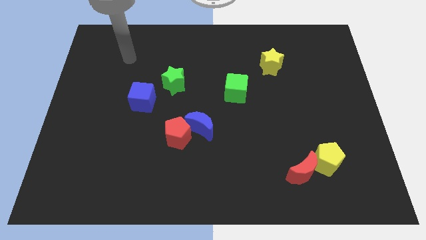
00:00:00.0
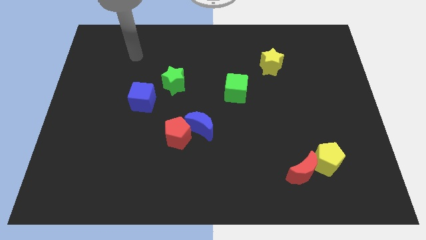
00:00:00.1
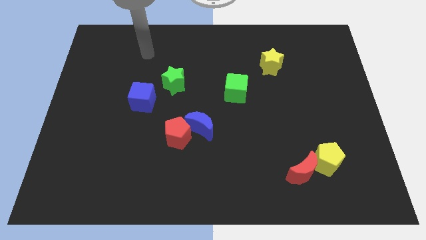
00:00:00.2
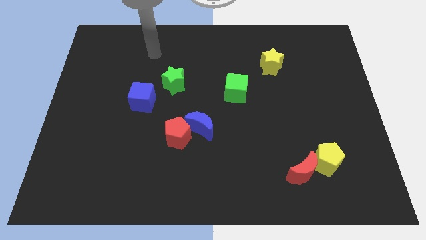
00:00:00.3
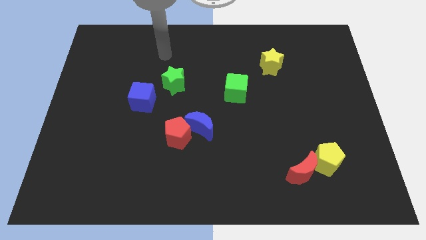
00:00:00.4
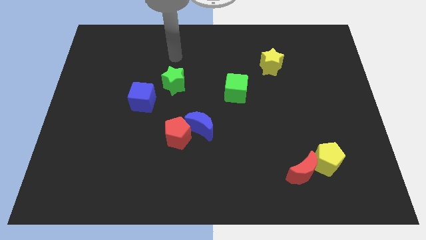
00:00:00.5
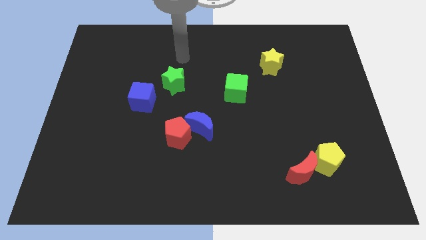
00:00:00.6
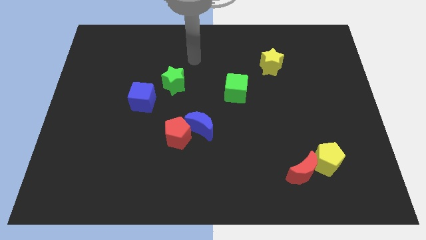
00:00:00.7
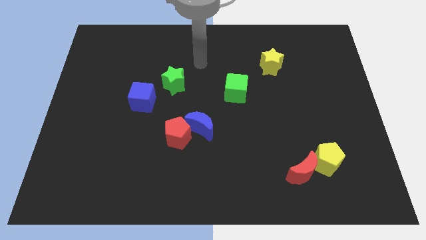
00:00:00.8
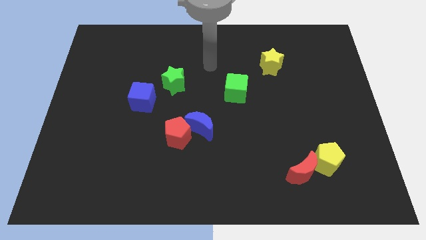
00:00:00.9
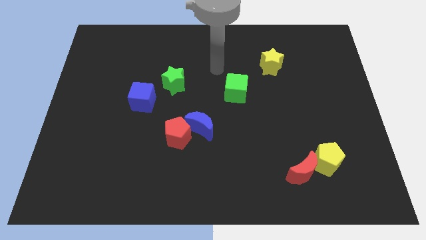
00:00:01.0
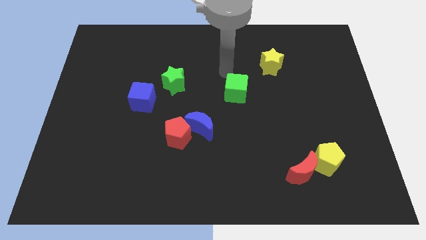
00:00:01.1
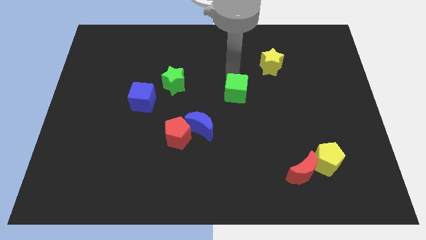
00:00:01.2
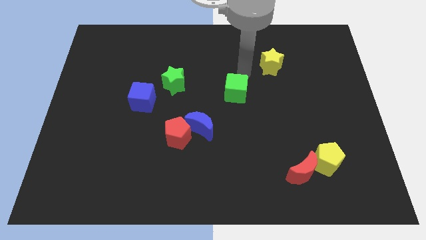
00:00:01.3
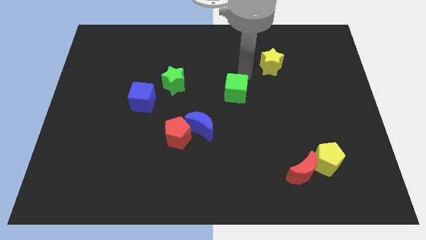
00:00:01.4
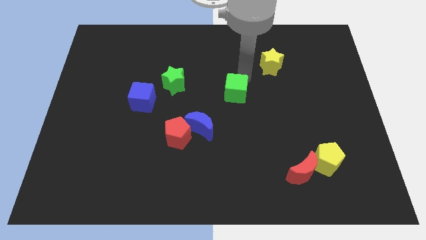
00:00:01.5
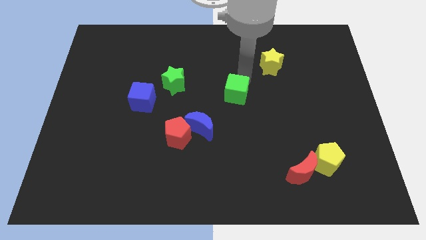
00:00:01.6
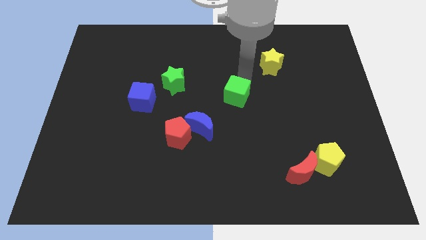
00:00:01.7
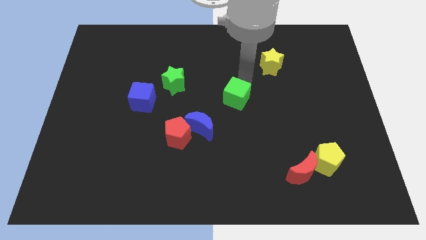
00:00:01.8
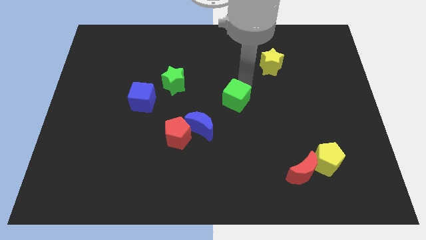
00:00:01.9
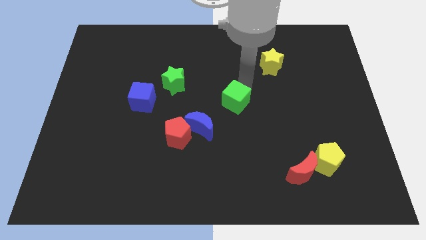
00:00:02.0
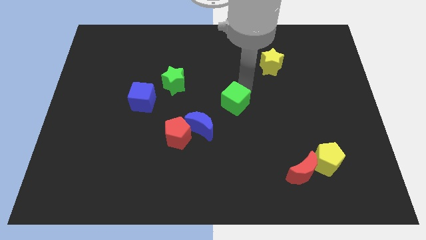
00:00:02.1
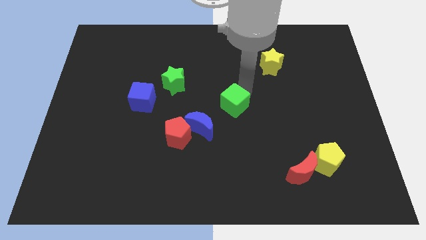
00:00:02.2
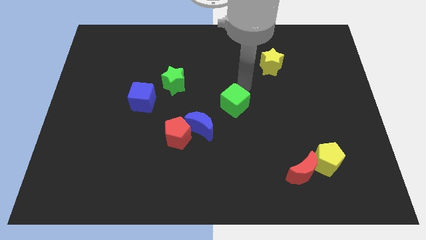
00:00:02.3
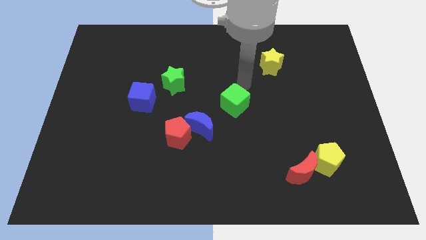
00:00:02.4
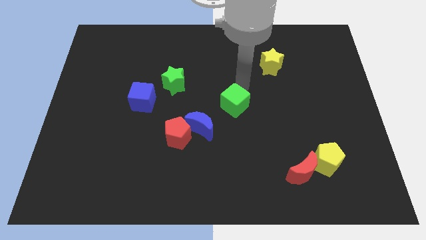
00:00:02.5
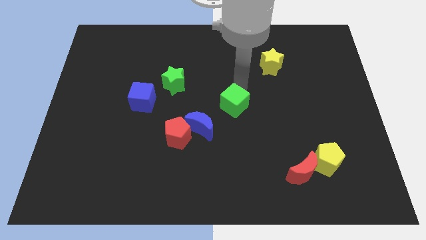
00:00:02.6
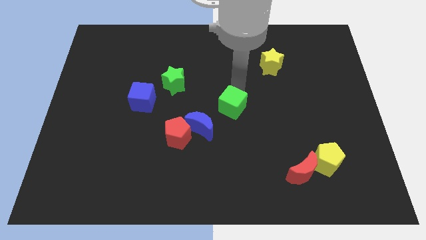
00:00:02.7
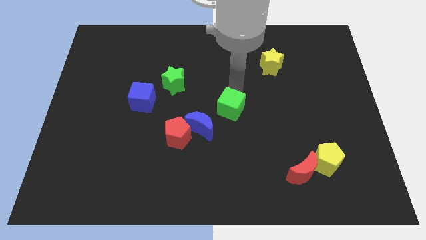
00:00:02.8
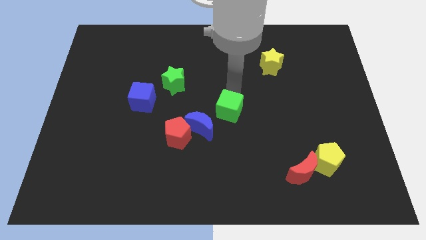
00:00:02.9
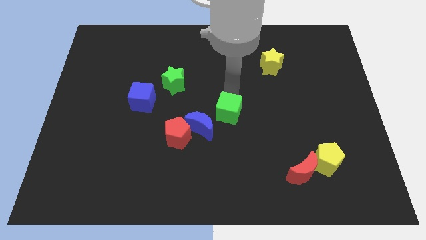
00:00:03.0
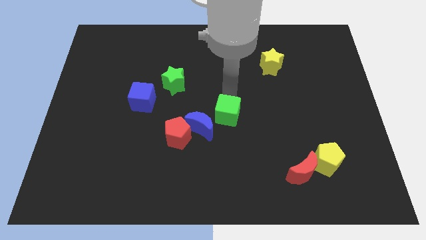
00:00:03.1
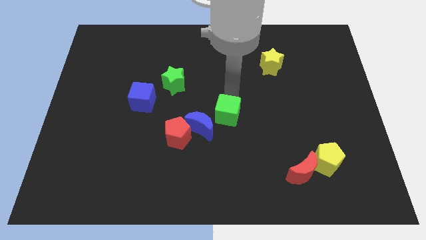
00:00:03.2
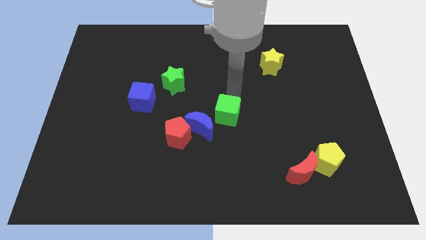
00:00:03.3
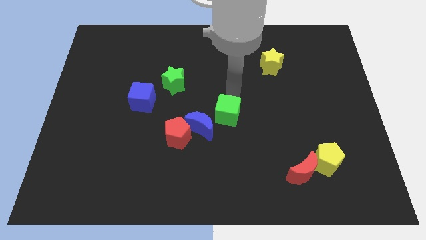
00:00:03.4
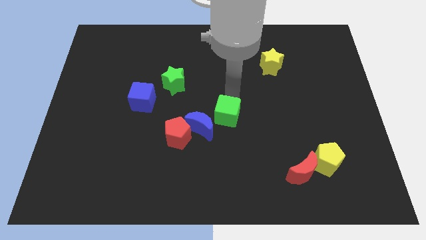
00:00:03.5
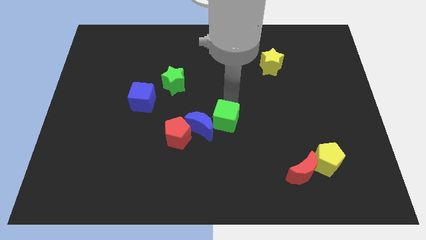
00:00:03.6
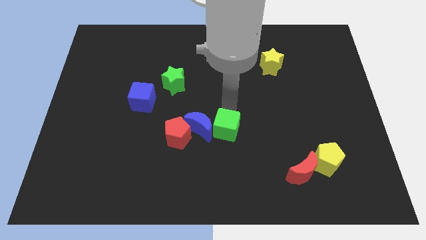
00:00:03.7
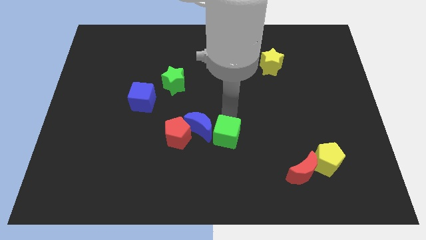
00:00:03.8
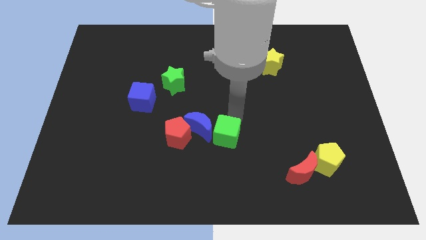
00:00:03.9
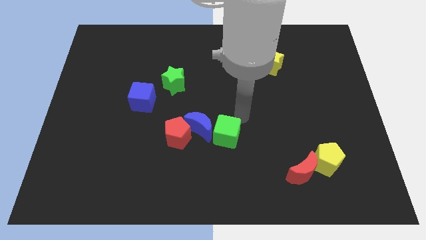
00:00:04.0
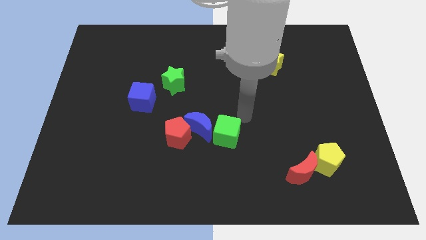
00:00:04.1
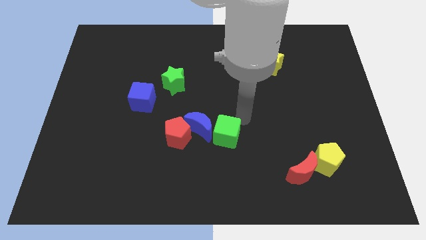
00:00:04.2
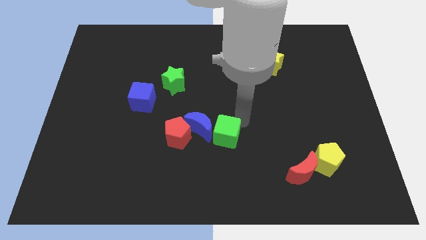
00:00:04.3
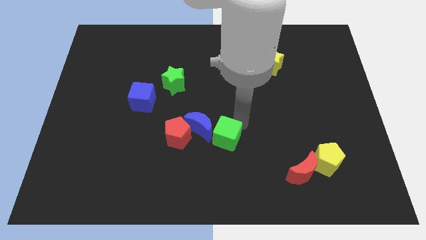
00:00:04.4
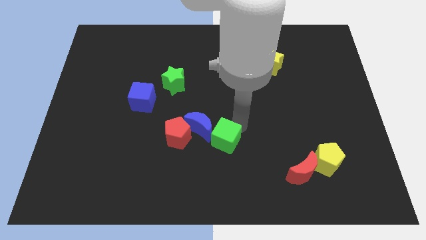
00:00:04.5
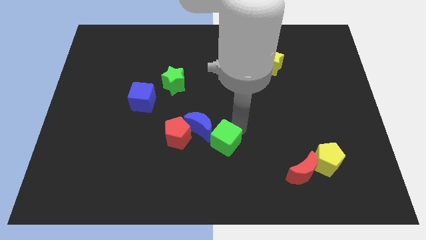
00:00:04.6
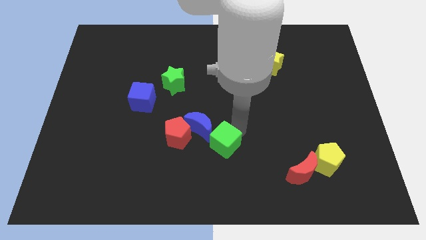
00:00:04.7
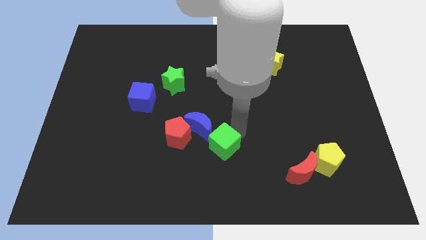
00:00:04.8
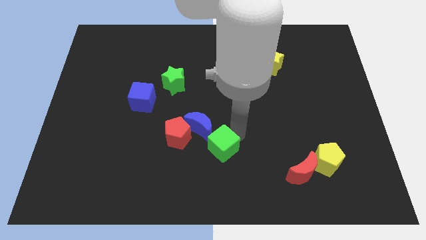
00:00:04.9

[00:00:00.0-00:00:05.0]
move the green cube to the bottom side of the blue moon

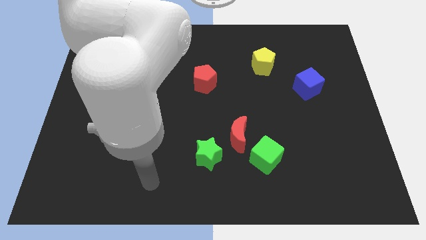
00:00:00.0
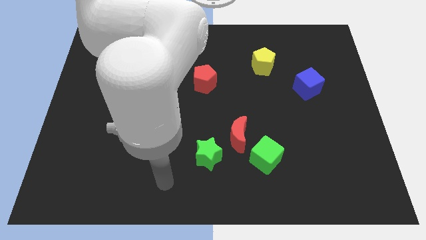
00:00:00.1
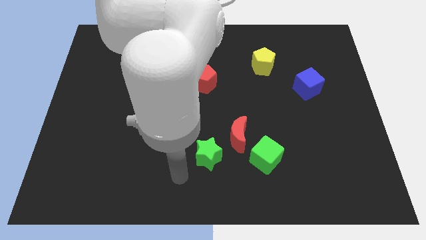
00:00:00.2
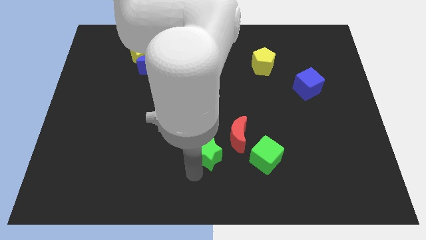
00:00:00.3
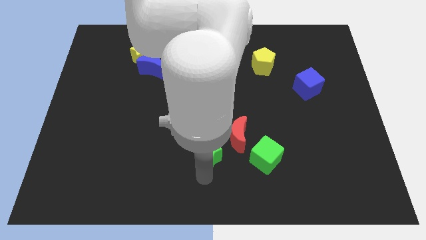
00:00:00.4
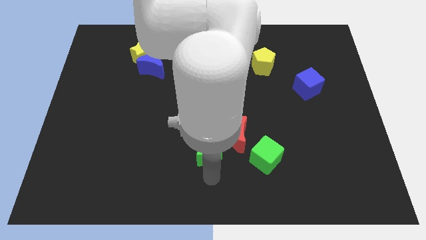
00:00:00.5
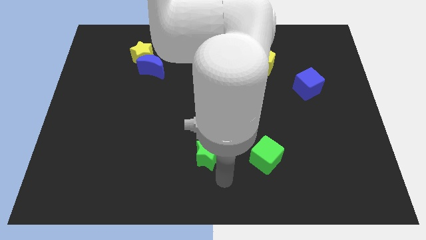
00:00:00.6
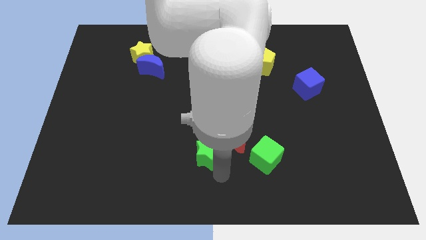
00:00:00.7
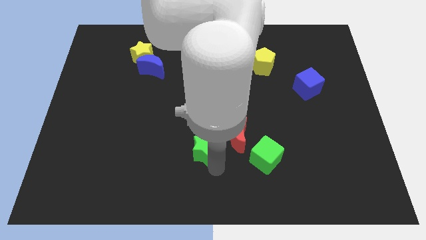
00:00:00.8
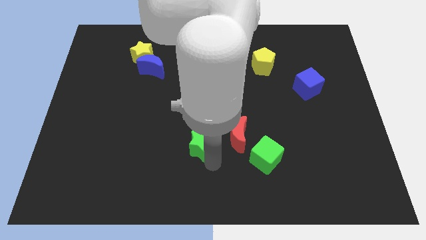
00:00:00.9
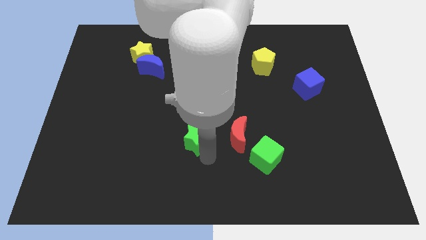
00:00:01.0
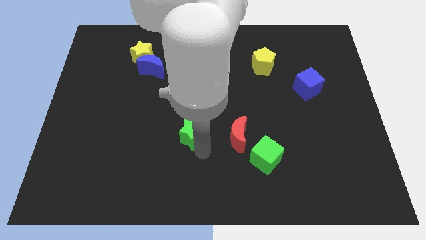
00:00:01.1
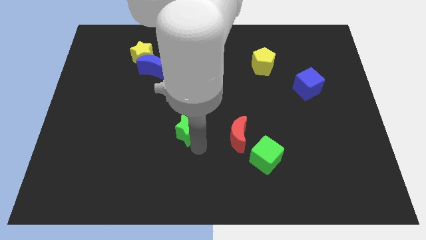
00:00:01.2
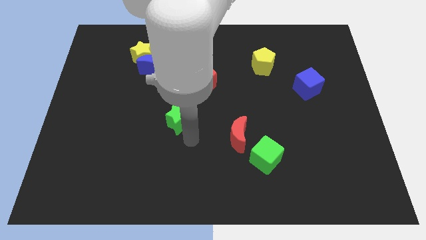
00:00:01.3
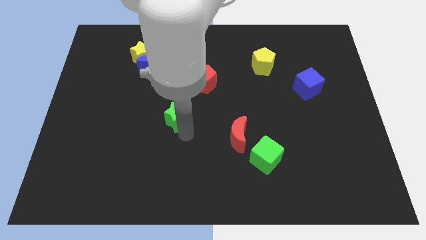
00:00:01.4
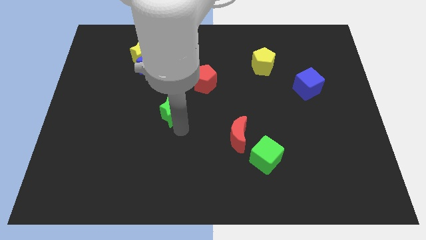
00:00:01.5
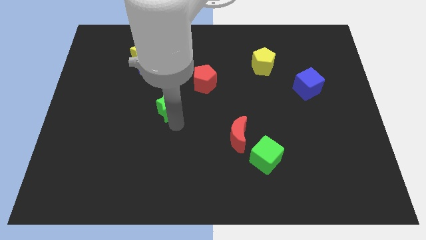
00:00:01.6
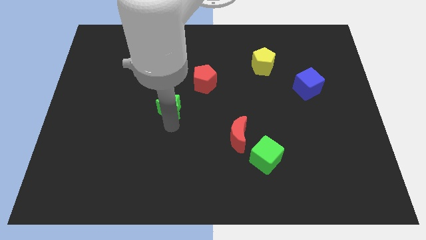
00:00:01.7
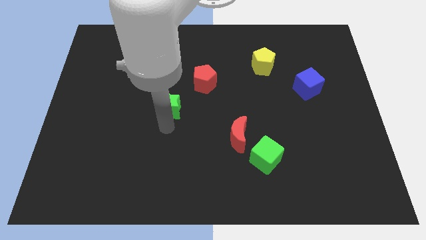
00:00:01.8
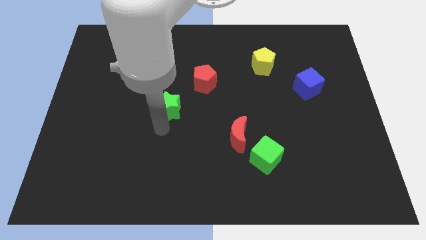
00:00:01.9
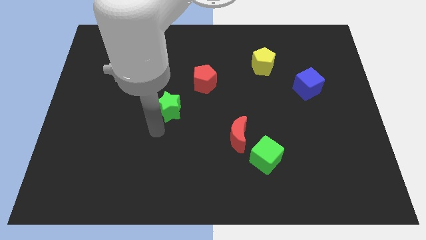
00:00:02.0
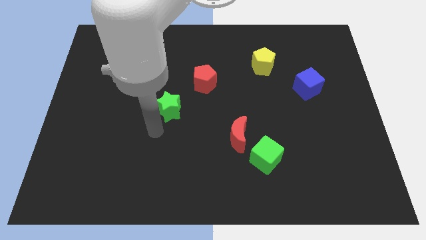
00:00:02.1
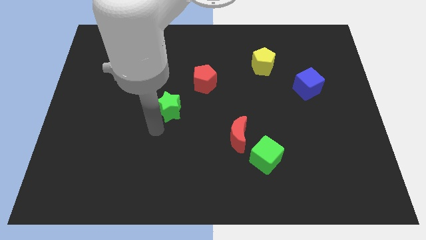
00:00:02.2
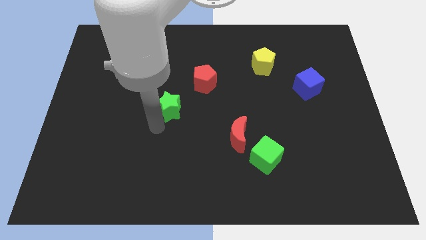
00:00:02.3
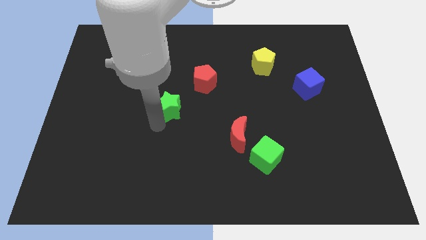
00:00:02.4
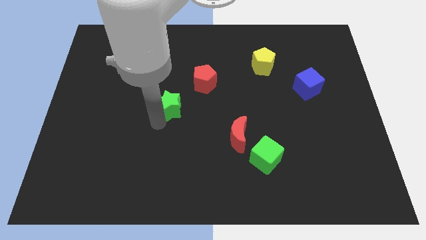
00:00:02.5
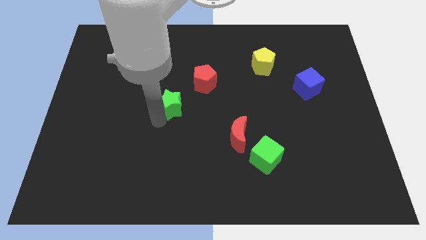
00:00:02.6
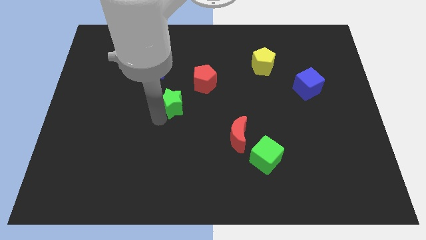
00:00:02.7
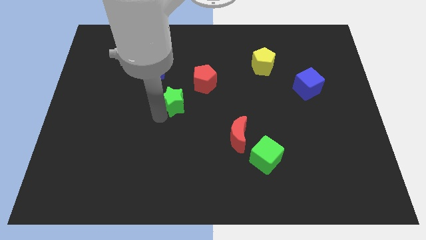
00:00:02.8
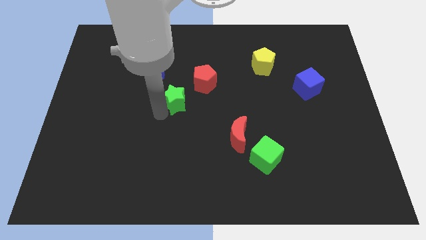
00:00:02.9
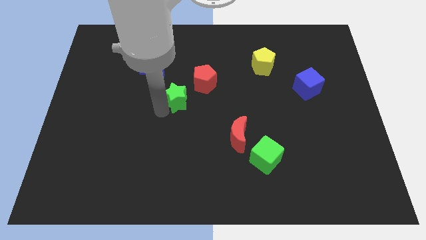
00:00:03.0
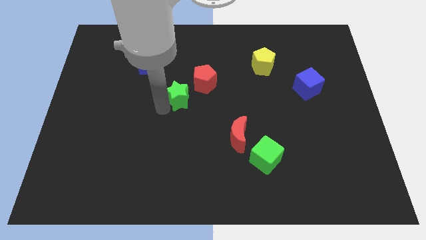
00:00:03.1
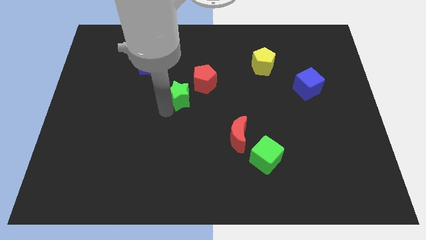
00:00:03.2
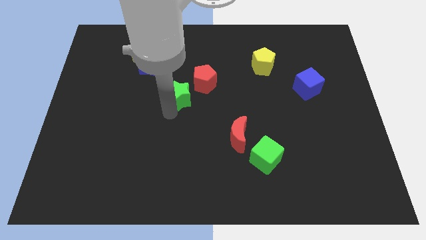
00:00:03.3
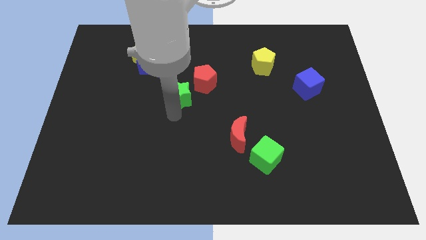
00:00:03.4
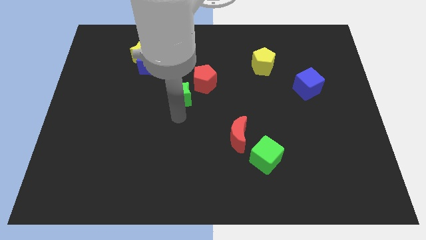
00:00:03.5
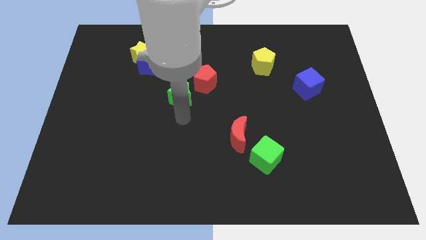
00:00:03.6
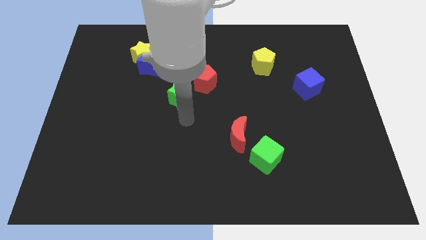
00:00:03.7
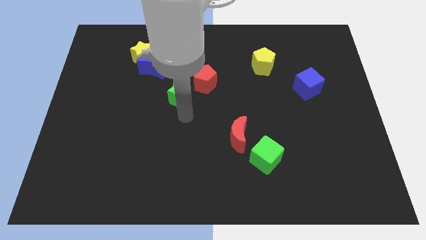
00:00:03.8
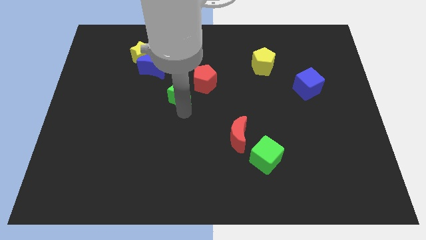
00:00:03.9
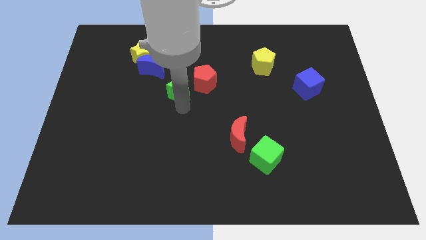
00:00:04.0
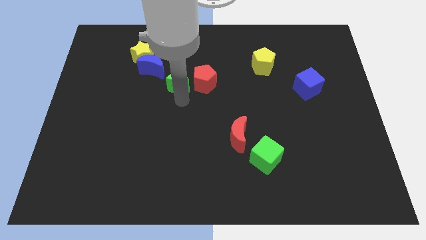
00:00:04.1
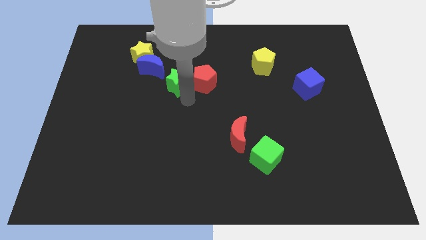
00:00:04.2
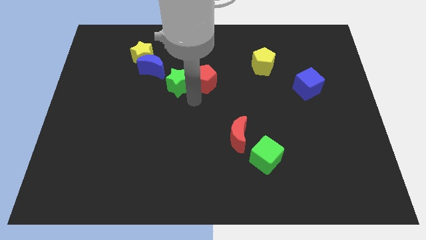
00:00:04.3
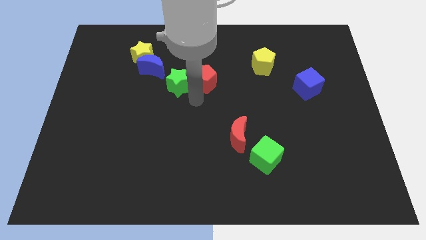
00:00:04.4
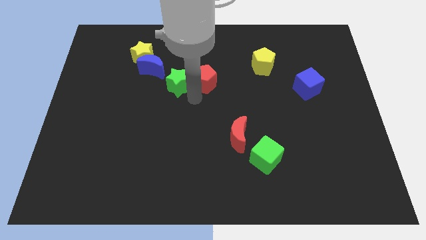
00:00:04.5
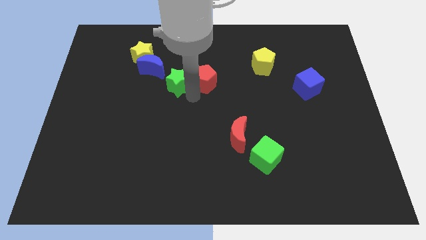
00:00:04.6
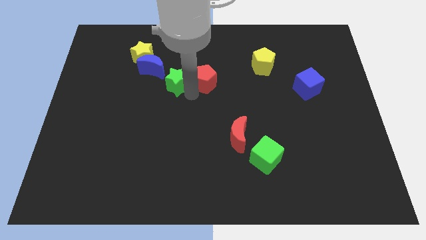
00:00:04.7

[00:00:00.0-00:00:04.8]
slide the green star to the bottom right side of the yellow star
